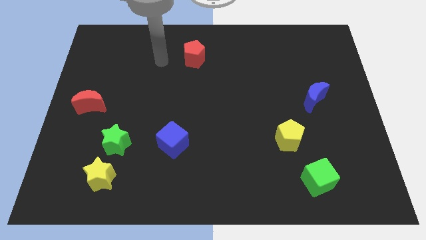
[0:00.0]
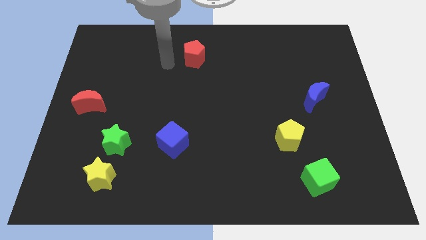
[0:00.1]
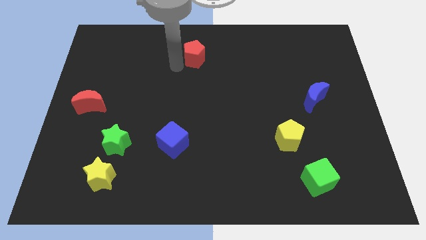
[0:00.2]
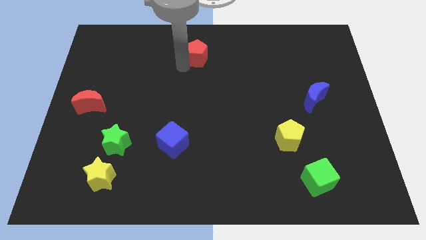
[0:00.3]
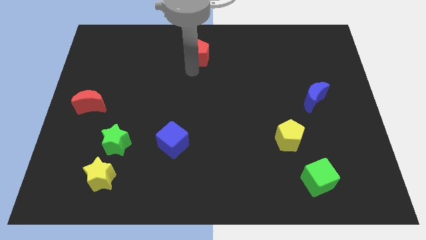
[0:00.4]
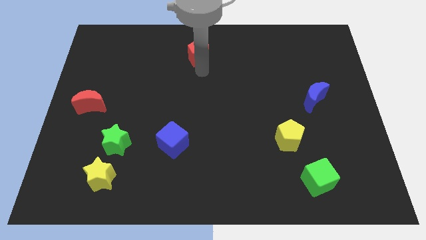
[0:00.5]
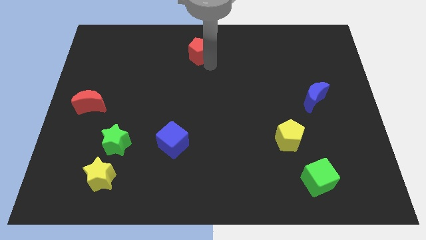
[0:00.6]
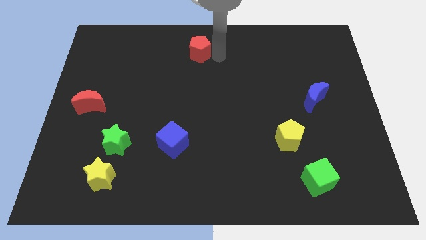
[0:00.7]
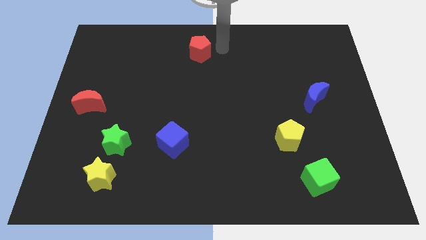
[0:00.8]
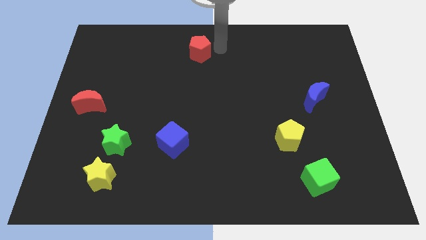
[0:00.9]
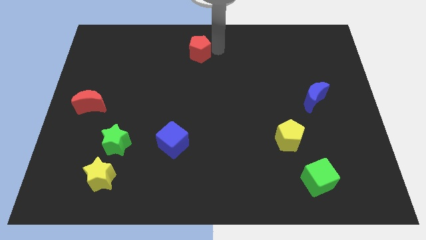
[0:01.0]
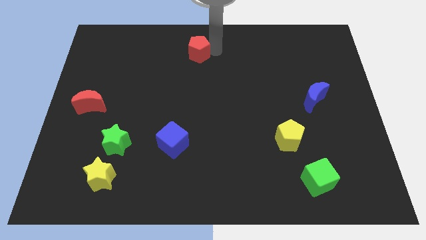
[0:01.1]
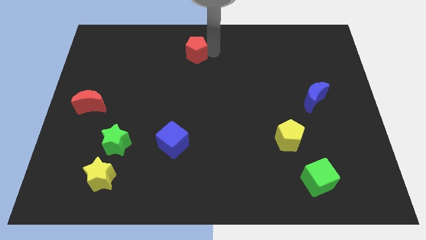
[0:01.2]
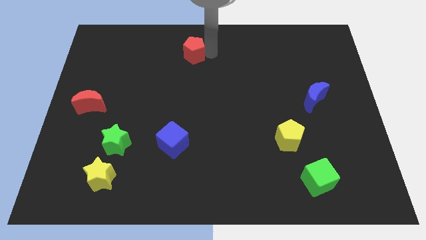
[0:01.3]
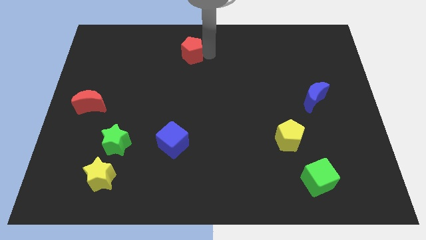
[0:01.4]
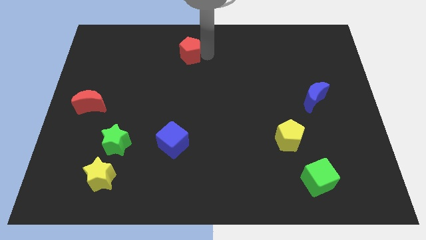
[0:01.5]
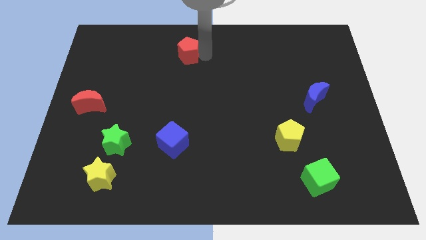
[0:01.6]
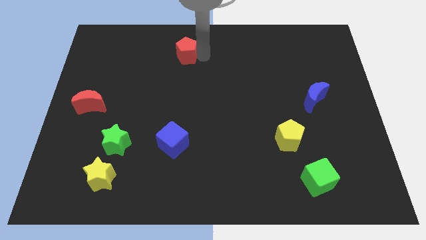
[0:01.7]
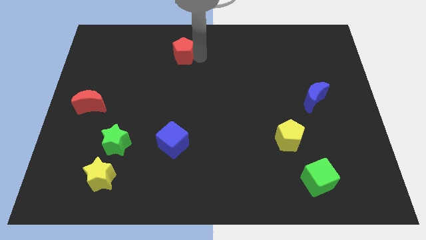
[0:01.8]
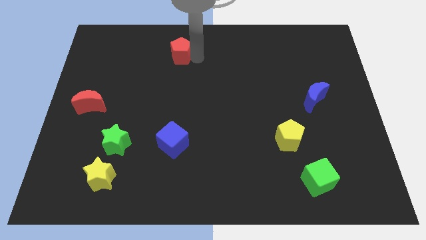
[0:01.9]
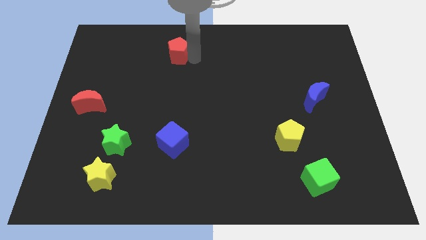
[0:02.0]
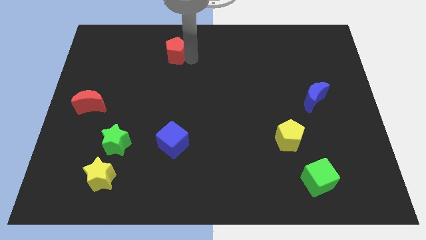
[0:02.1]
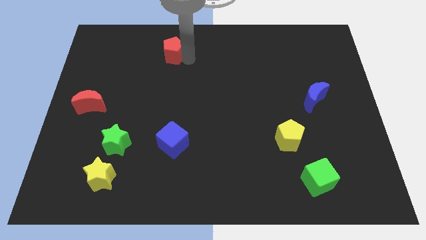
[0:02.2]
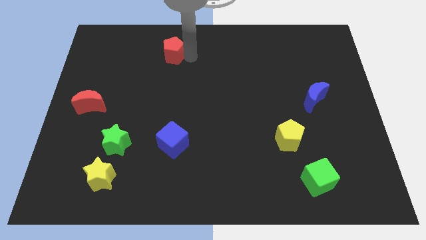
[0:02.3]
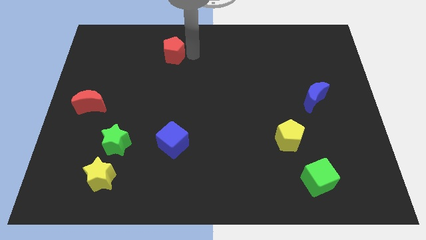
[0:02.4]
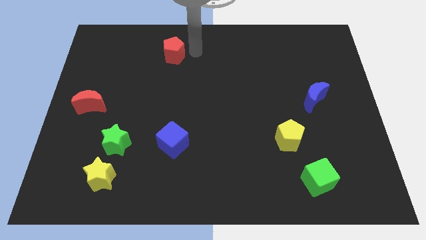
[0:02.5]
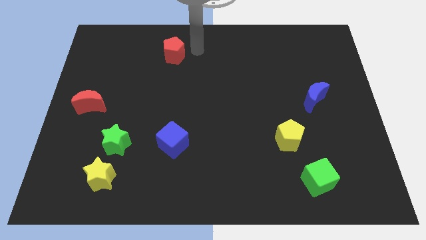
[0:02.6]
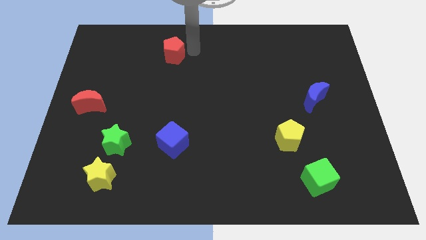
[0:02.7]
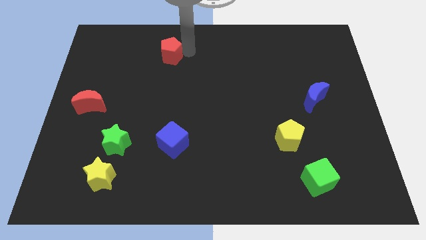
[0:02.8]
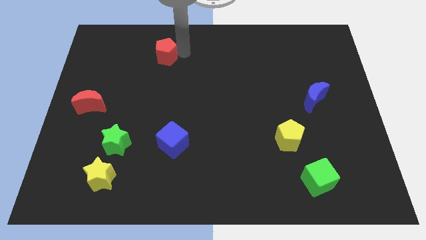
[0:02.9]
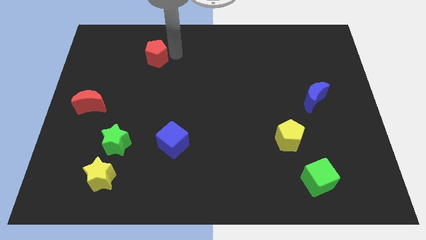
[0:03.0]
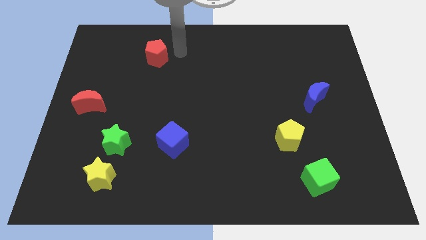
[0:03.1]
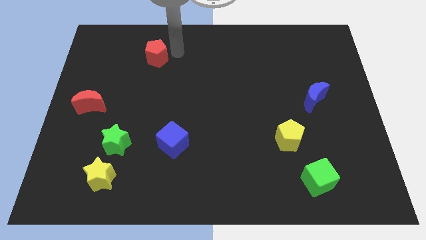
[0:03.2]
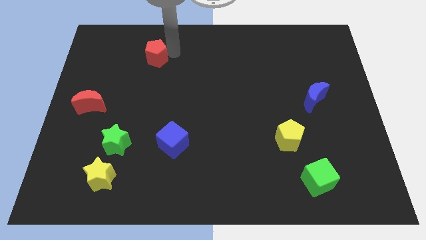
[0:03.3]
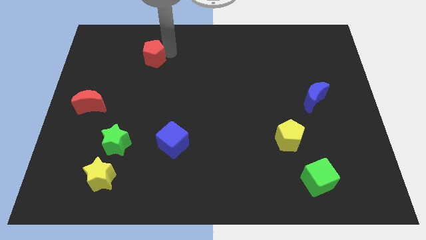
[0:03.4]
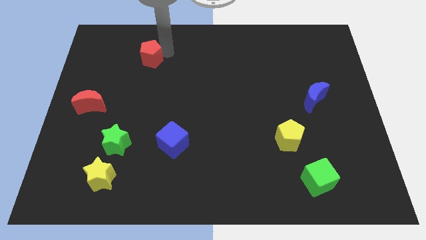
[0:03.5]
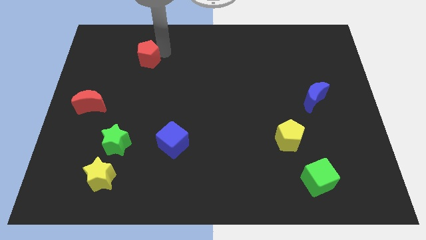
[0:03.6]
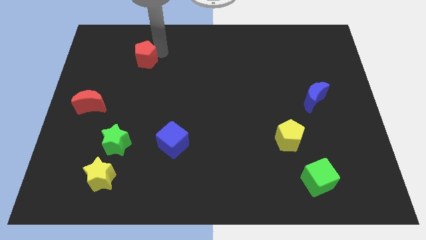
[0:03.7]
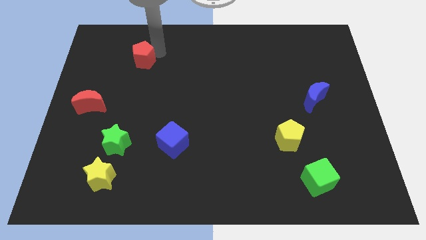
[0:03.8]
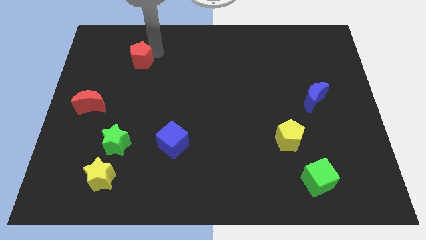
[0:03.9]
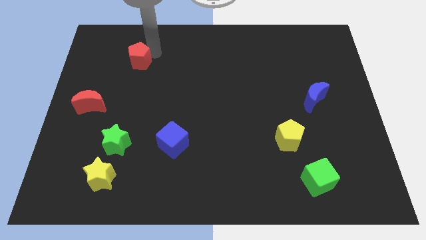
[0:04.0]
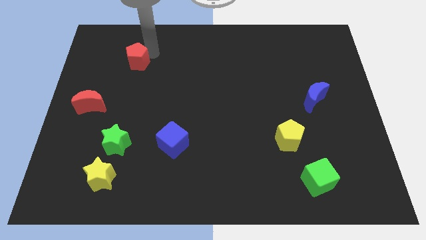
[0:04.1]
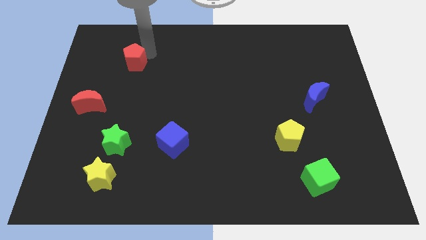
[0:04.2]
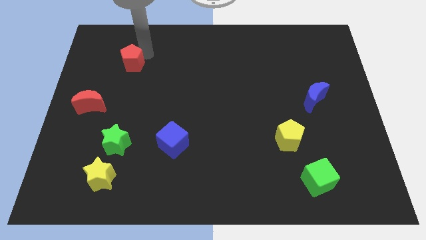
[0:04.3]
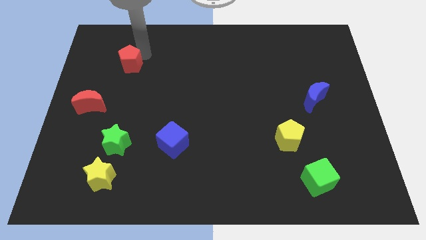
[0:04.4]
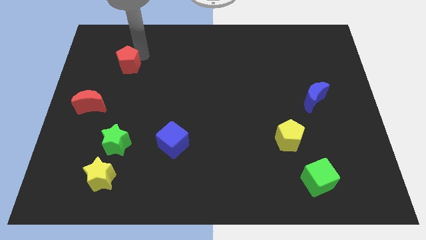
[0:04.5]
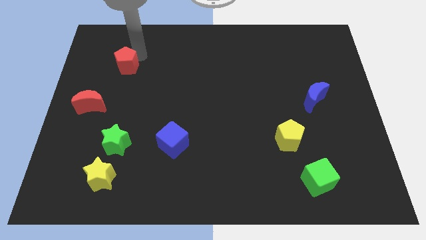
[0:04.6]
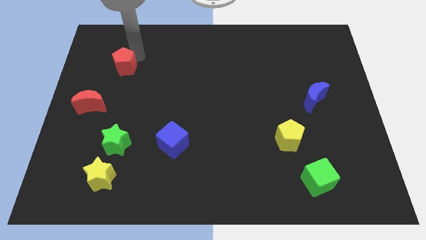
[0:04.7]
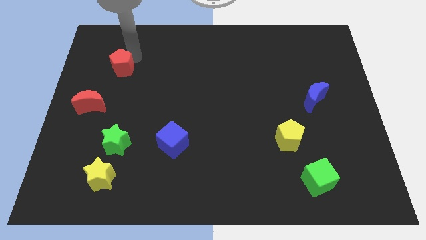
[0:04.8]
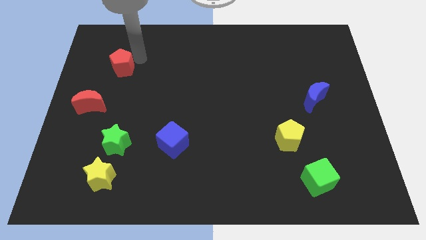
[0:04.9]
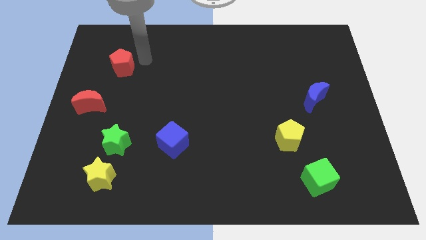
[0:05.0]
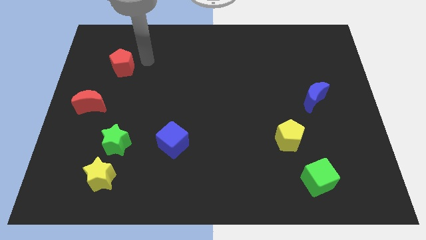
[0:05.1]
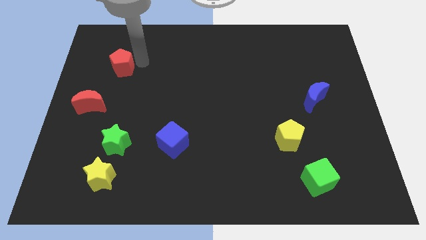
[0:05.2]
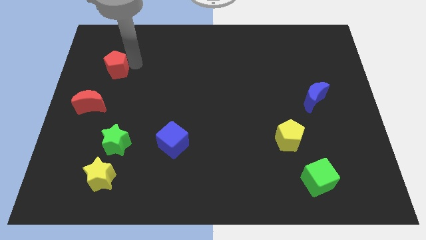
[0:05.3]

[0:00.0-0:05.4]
move the red pentagon to the top side of the red moon

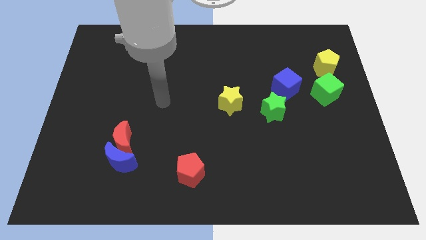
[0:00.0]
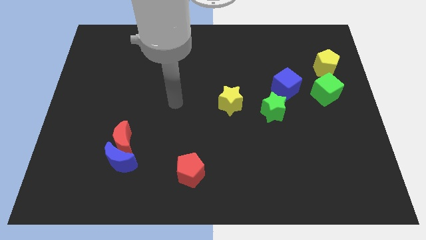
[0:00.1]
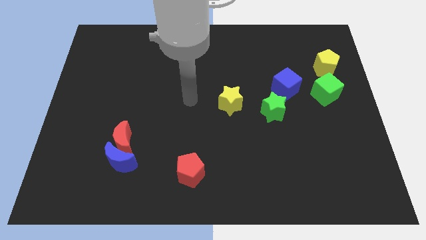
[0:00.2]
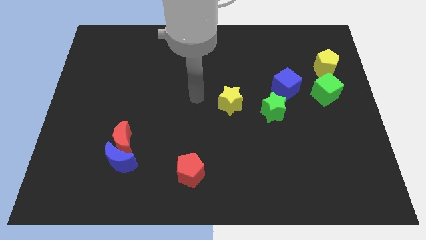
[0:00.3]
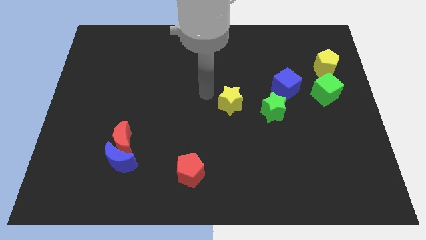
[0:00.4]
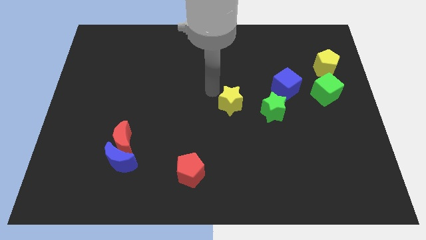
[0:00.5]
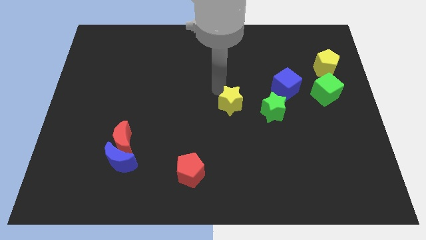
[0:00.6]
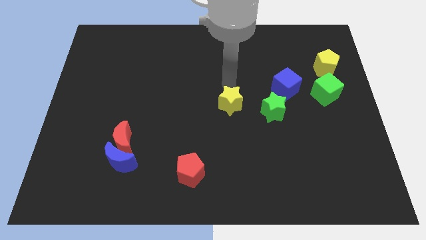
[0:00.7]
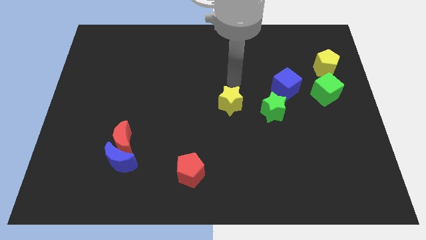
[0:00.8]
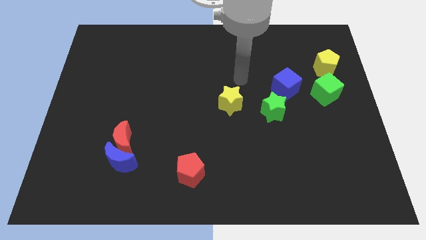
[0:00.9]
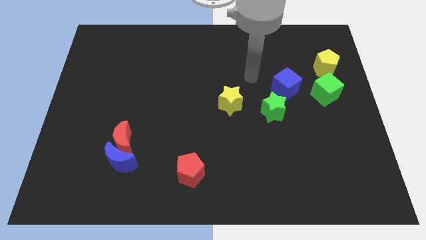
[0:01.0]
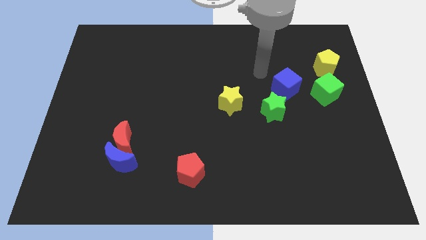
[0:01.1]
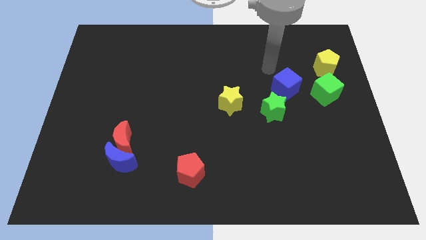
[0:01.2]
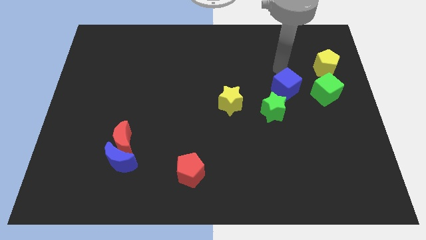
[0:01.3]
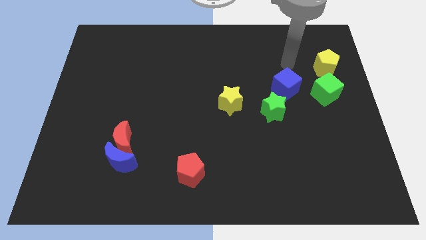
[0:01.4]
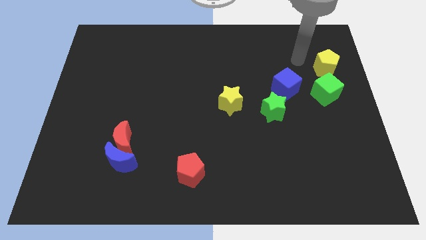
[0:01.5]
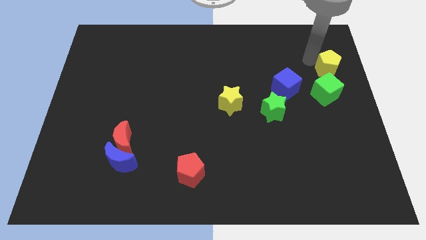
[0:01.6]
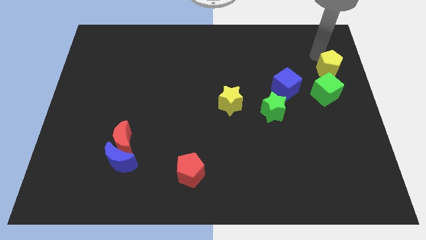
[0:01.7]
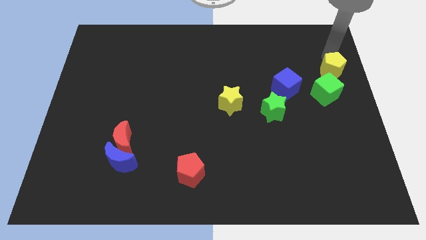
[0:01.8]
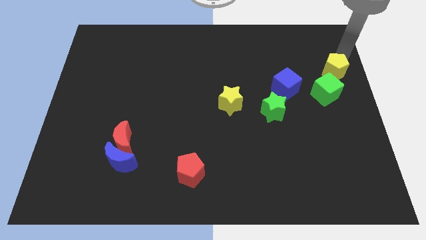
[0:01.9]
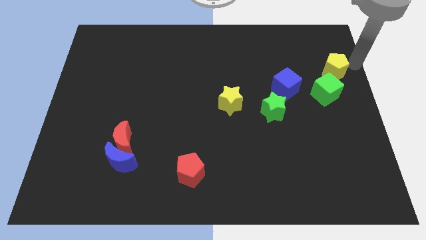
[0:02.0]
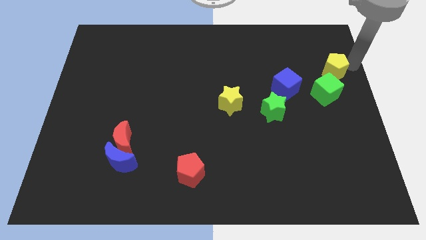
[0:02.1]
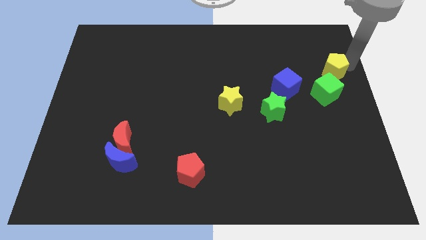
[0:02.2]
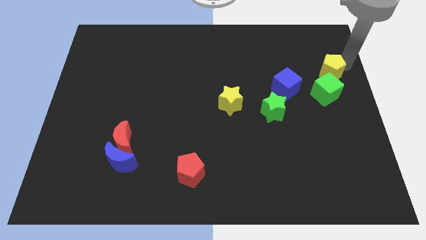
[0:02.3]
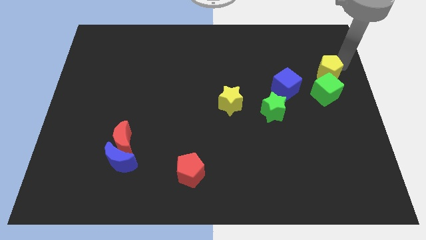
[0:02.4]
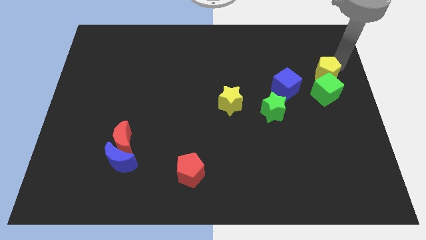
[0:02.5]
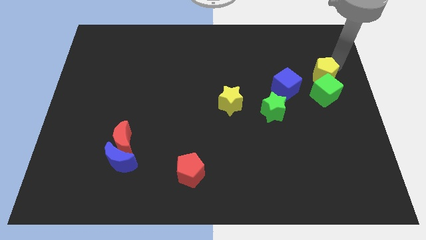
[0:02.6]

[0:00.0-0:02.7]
slide the yellow pentagon to the top left of the green cube

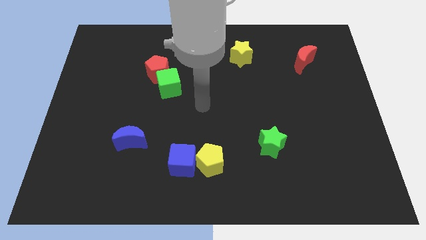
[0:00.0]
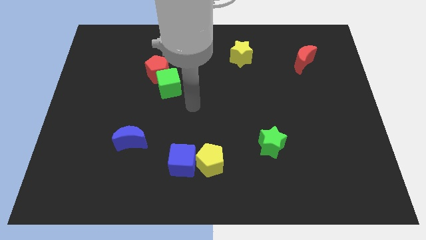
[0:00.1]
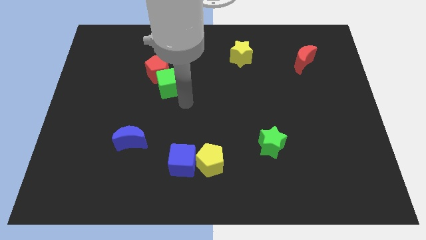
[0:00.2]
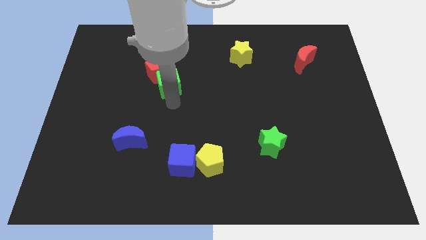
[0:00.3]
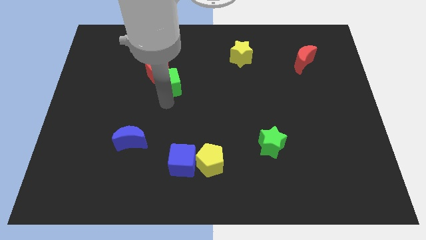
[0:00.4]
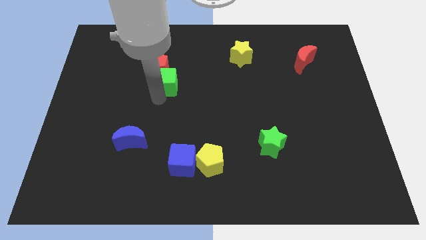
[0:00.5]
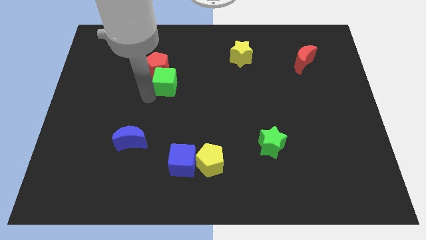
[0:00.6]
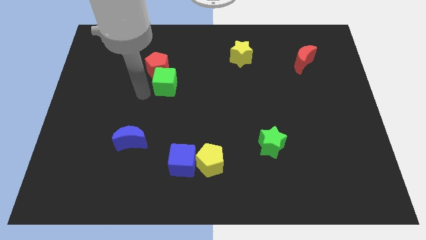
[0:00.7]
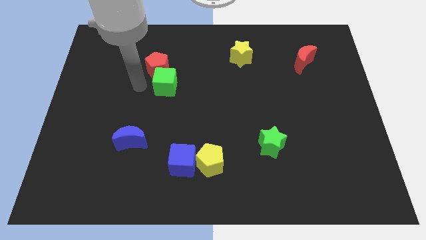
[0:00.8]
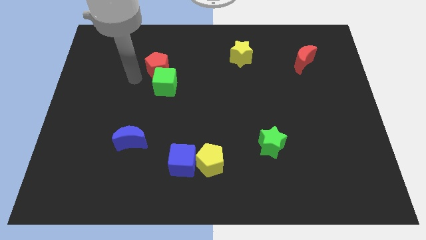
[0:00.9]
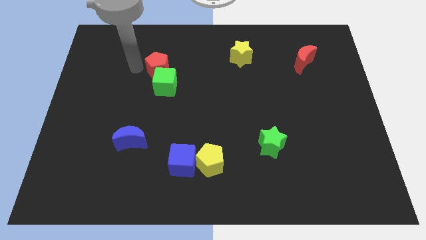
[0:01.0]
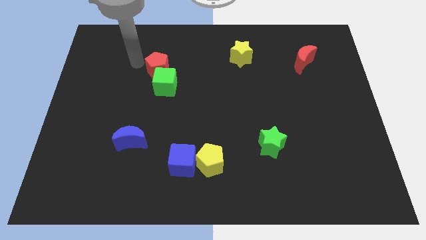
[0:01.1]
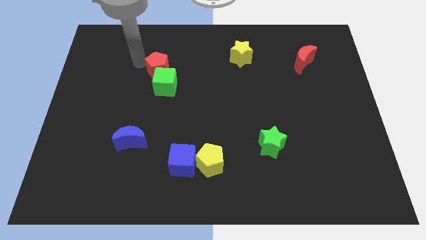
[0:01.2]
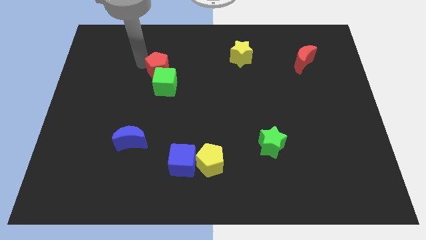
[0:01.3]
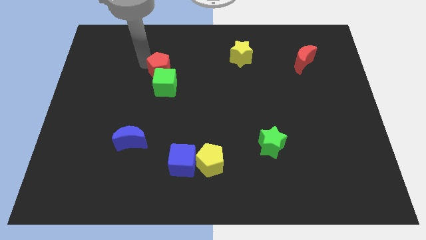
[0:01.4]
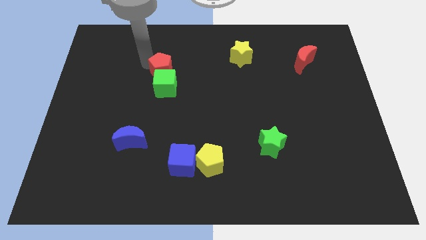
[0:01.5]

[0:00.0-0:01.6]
push the red pentagon to the top right of the green cube
